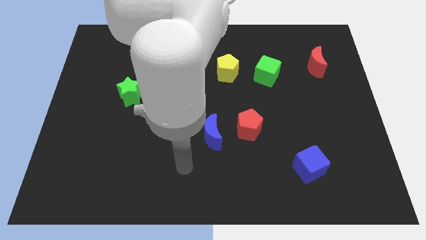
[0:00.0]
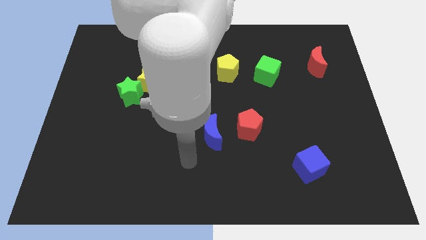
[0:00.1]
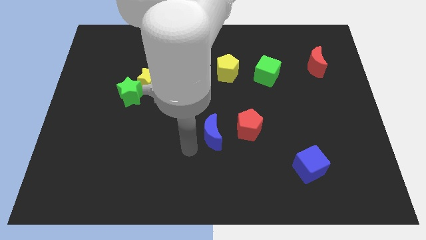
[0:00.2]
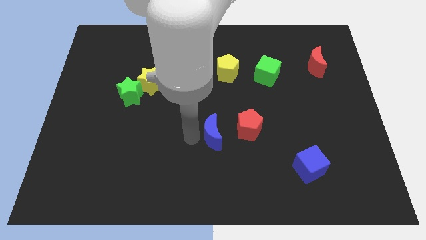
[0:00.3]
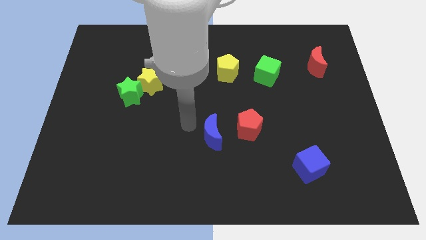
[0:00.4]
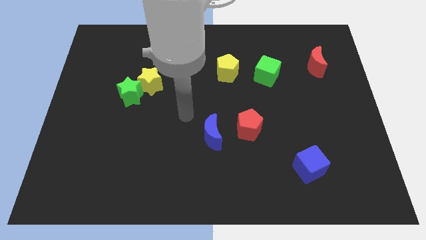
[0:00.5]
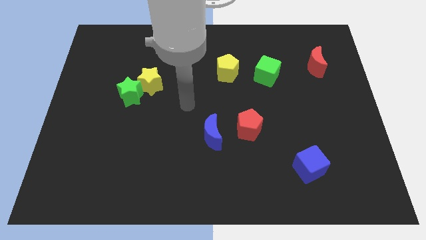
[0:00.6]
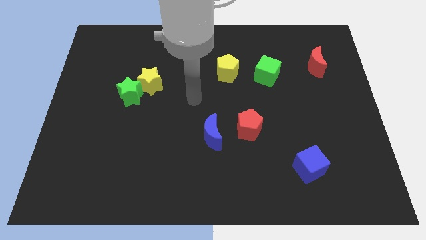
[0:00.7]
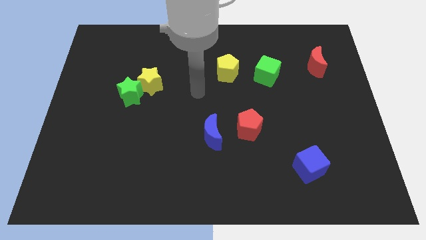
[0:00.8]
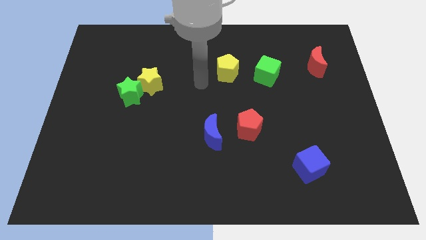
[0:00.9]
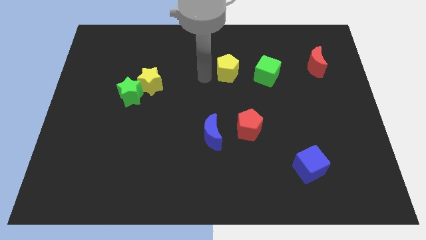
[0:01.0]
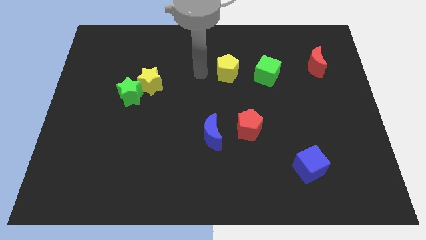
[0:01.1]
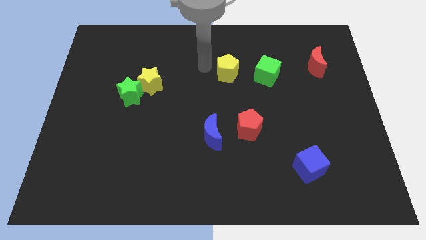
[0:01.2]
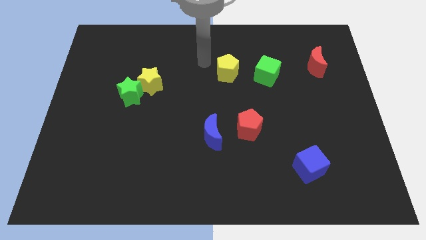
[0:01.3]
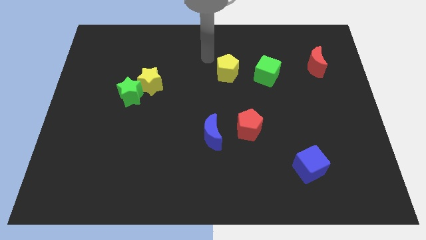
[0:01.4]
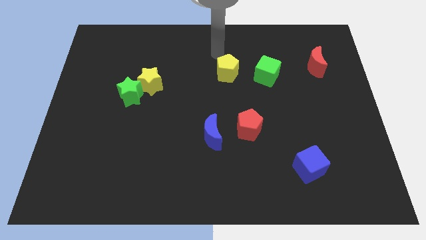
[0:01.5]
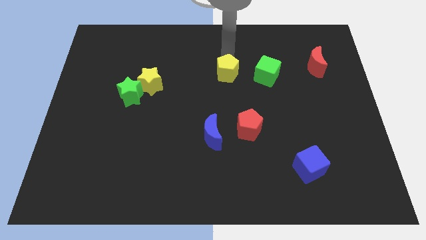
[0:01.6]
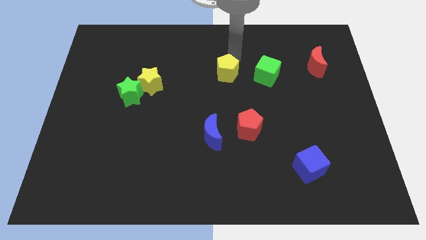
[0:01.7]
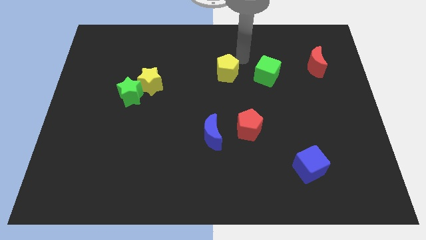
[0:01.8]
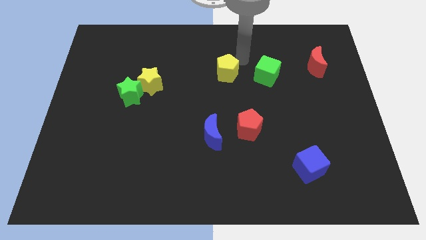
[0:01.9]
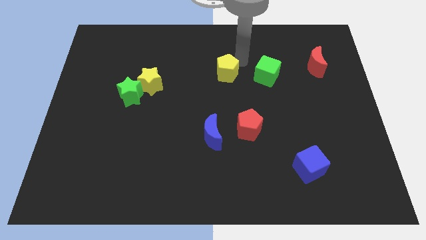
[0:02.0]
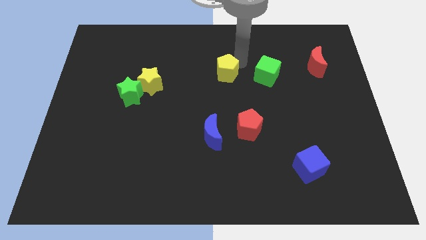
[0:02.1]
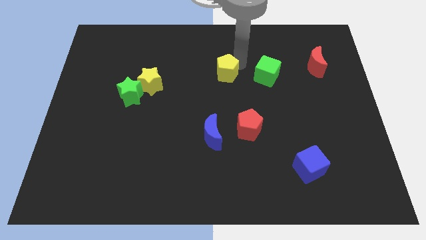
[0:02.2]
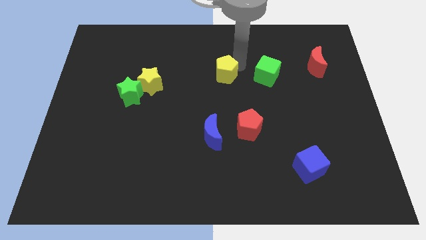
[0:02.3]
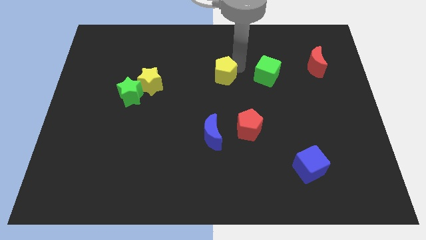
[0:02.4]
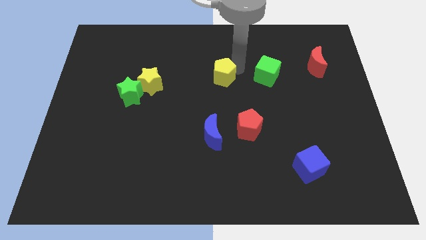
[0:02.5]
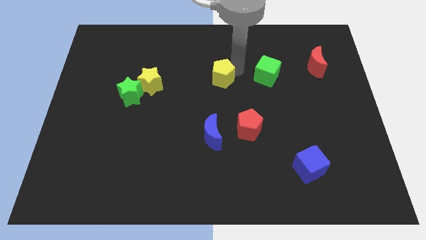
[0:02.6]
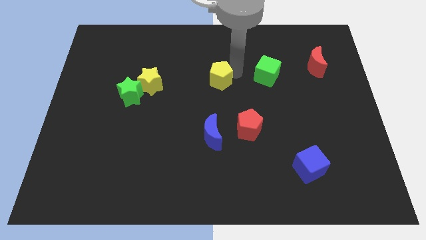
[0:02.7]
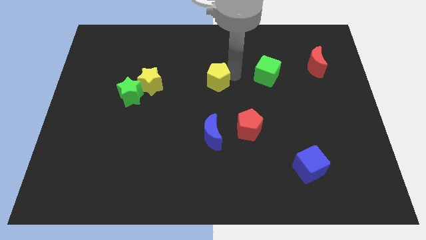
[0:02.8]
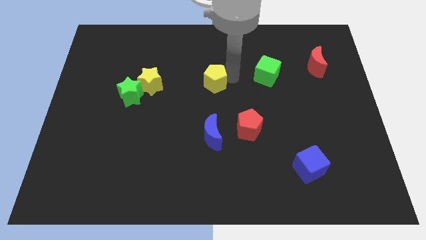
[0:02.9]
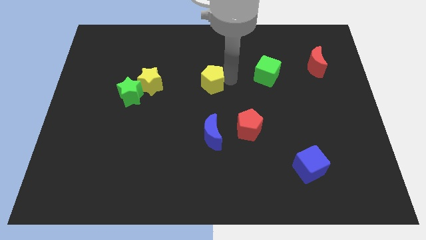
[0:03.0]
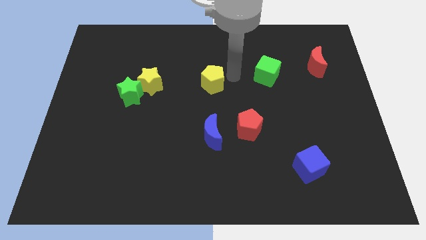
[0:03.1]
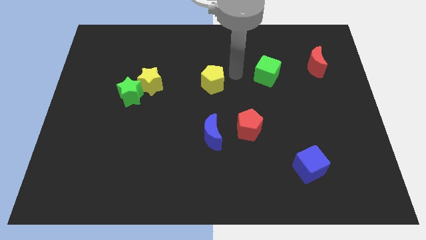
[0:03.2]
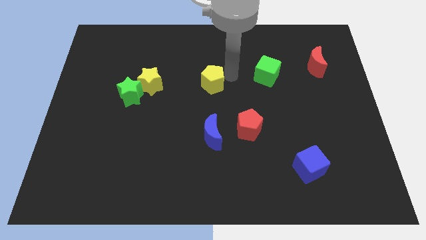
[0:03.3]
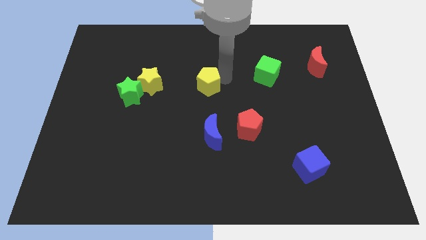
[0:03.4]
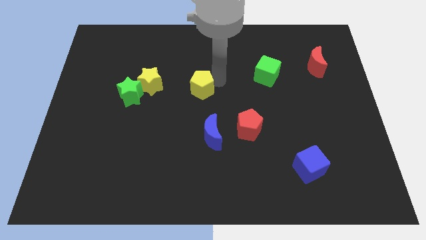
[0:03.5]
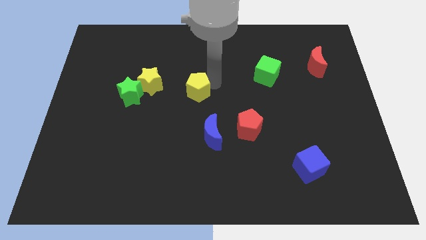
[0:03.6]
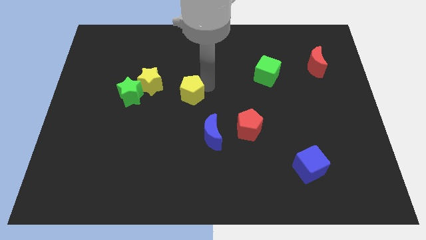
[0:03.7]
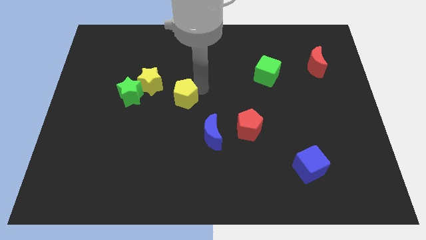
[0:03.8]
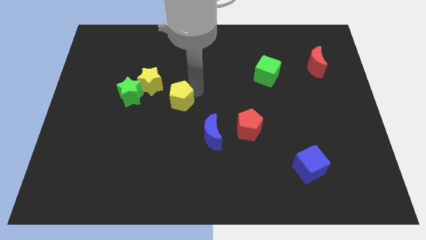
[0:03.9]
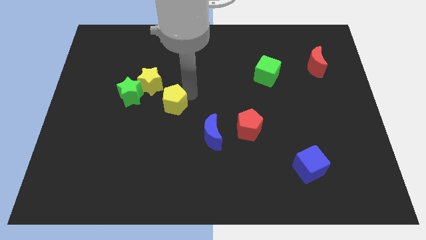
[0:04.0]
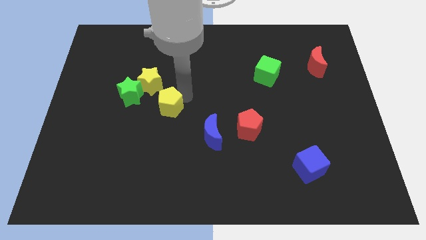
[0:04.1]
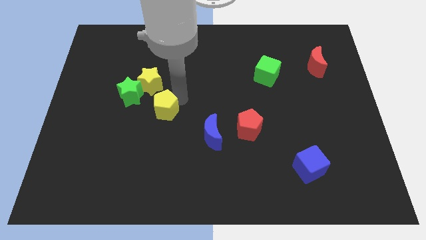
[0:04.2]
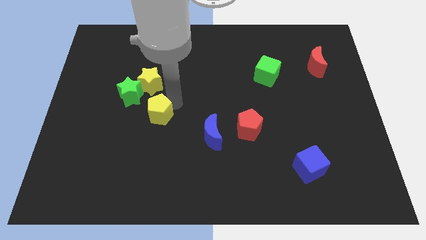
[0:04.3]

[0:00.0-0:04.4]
move the yellow pentagon diagonally downwards and to the left

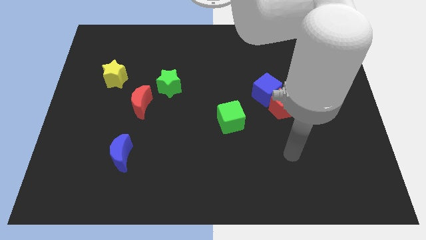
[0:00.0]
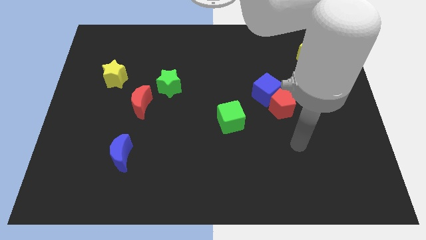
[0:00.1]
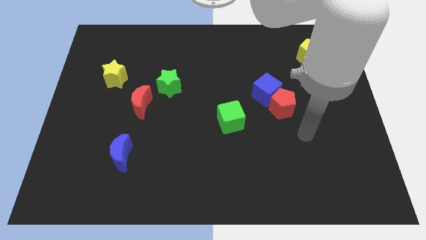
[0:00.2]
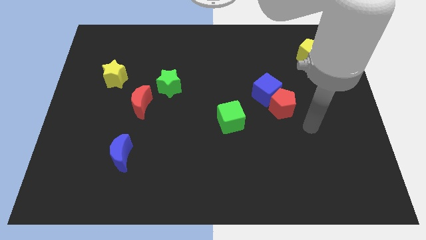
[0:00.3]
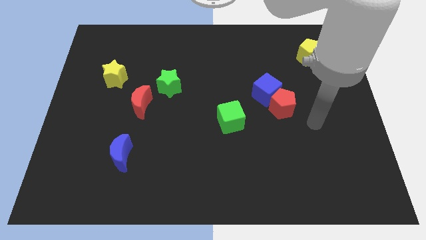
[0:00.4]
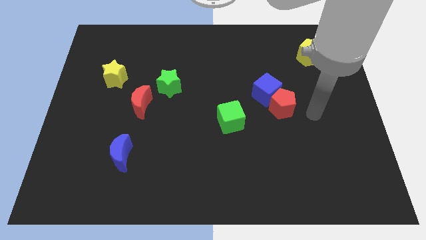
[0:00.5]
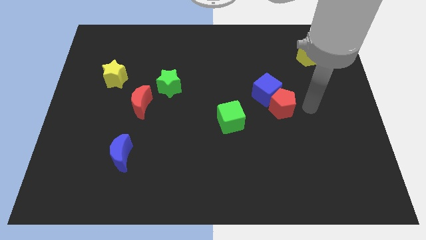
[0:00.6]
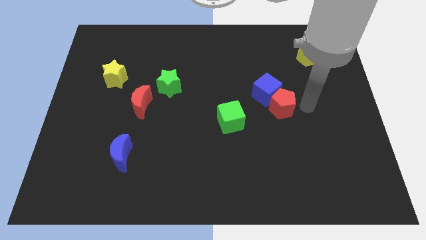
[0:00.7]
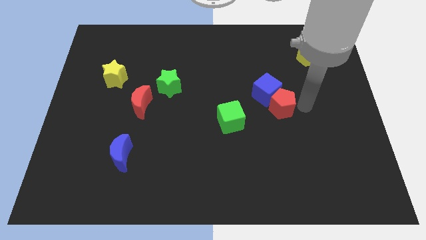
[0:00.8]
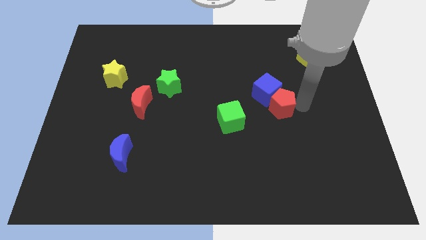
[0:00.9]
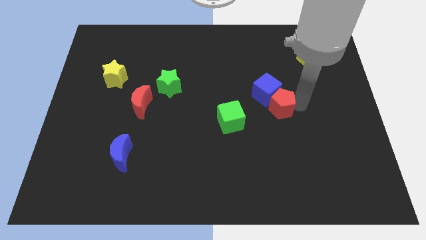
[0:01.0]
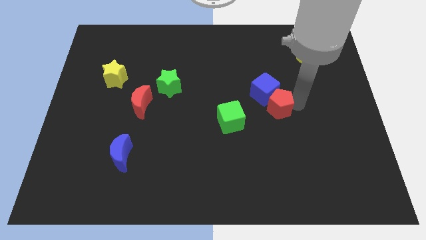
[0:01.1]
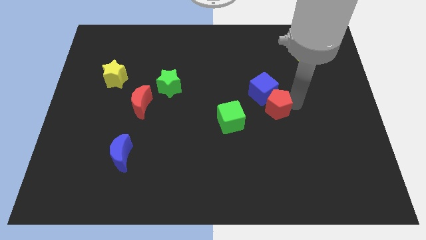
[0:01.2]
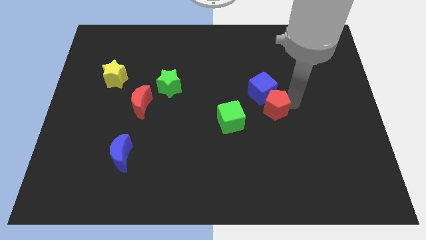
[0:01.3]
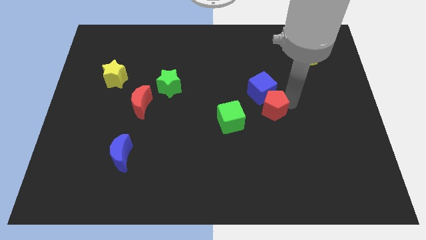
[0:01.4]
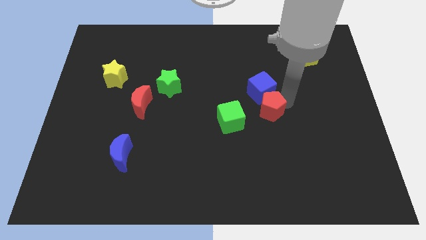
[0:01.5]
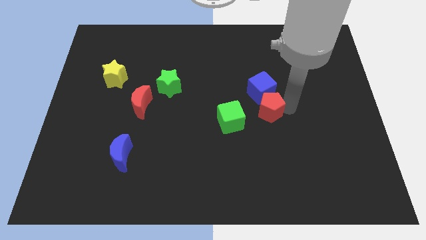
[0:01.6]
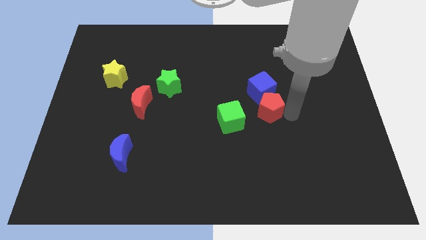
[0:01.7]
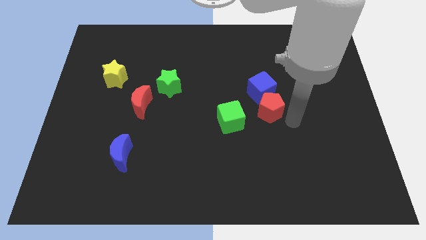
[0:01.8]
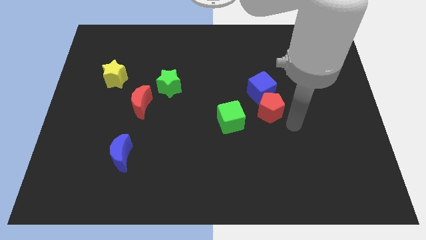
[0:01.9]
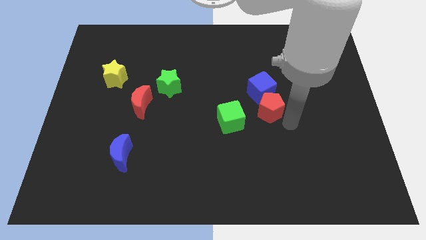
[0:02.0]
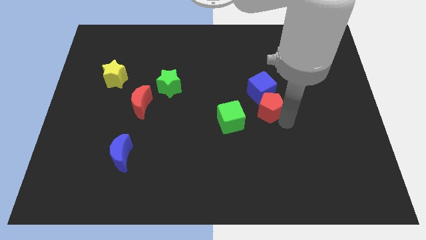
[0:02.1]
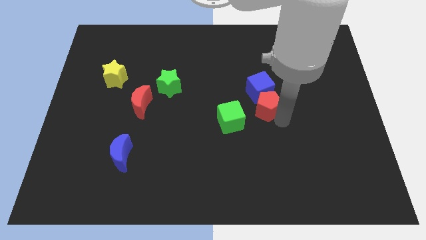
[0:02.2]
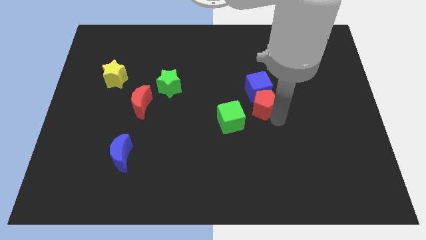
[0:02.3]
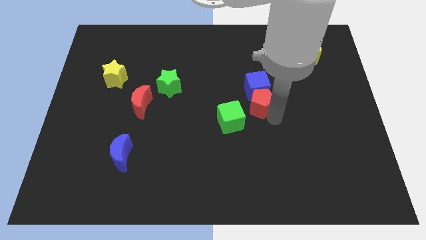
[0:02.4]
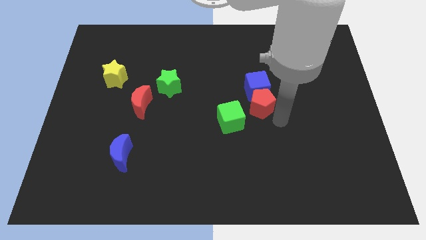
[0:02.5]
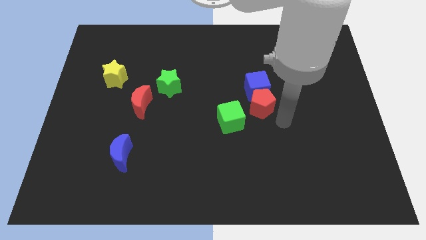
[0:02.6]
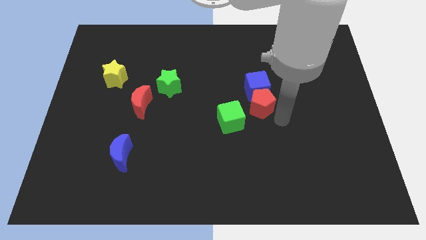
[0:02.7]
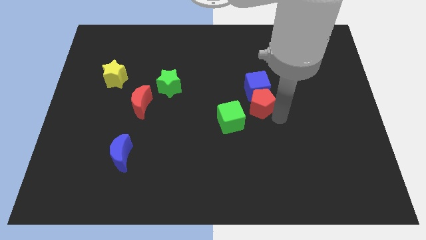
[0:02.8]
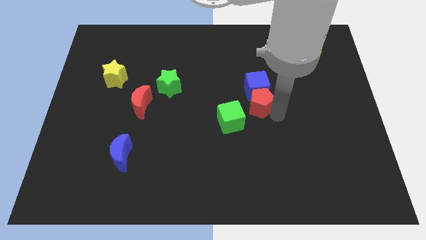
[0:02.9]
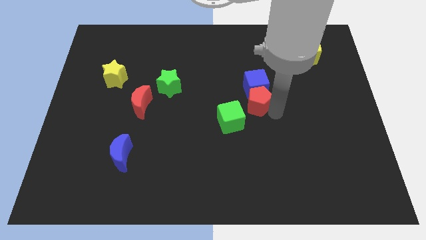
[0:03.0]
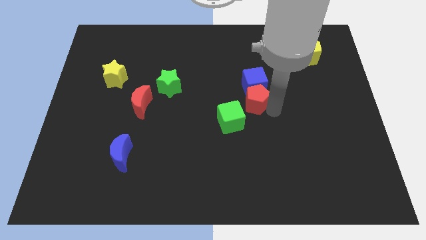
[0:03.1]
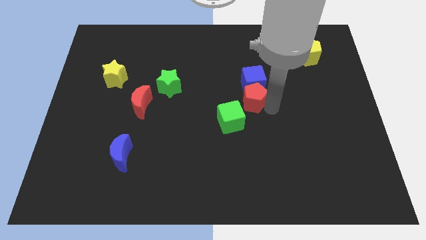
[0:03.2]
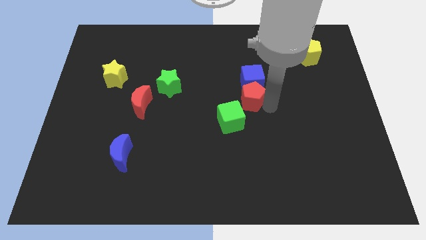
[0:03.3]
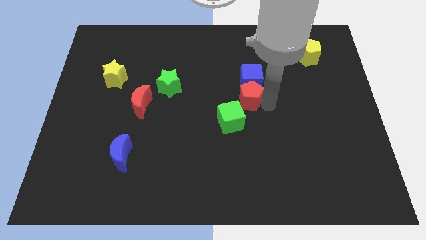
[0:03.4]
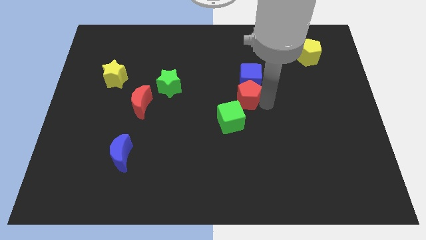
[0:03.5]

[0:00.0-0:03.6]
move the red pentagon diagonally upwards and left a little bit

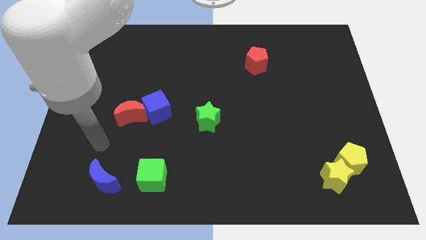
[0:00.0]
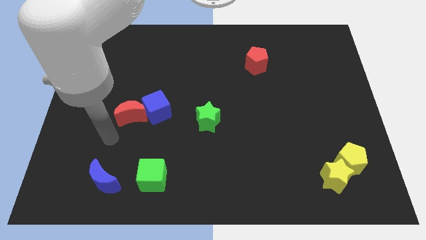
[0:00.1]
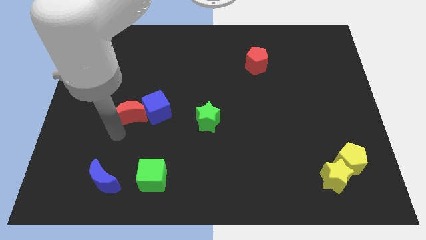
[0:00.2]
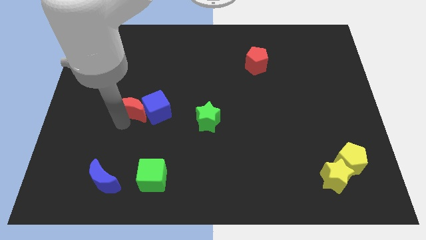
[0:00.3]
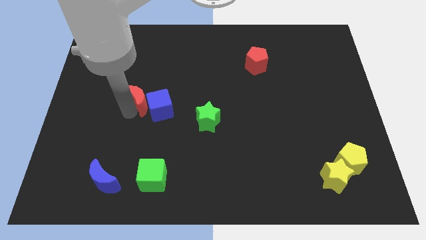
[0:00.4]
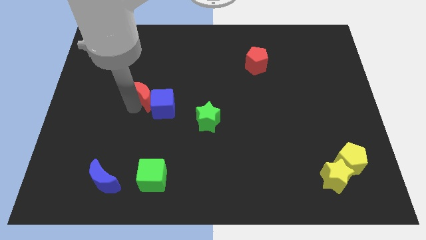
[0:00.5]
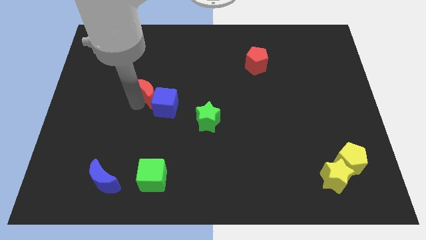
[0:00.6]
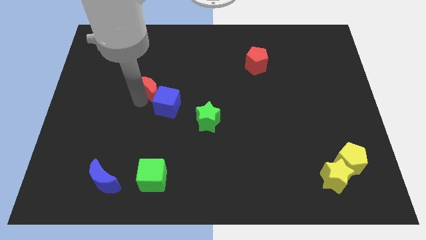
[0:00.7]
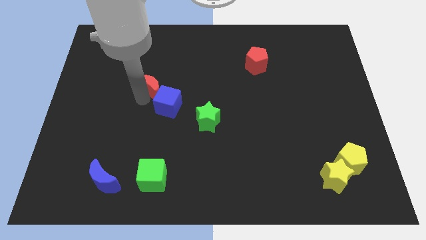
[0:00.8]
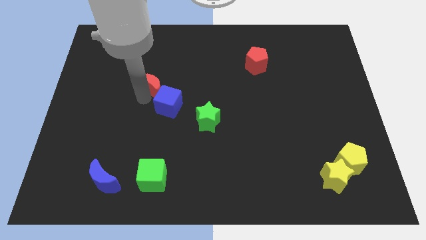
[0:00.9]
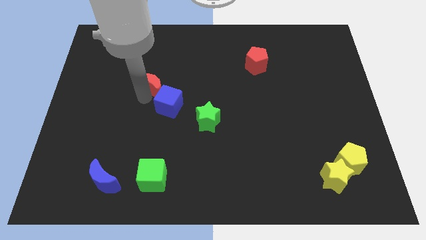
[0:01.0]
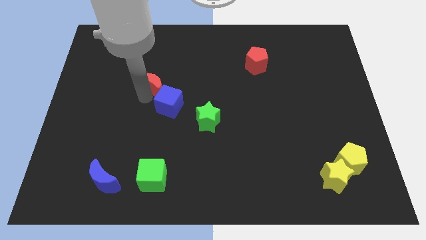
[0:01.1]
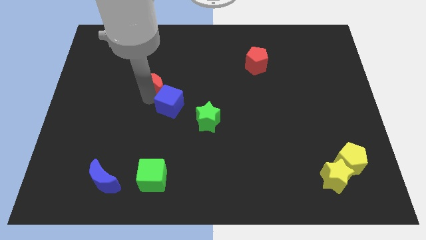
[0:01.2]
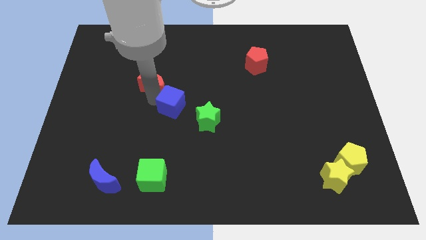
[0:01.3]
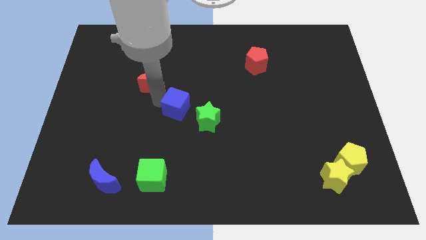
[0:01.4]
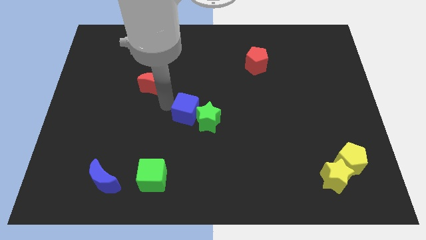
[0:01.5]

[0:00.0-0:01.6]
push the blue cube to the right somewhat
